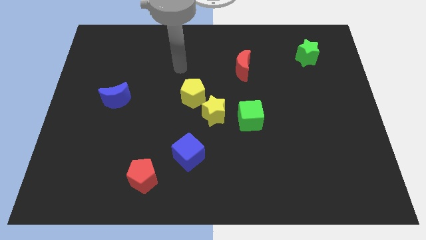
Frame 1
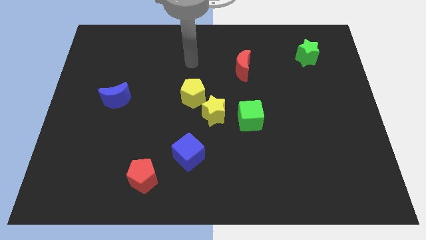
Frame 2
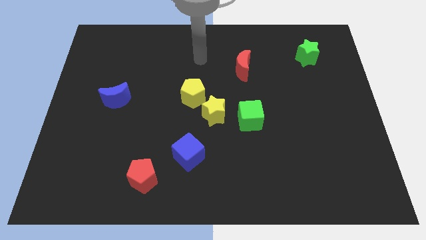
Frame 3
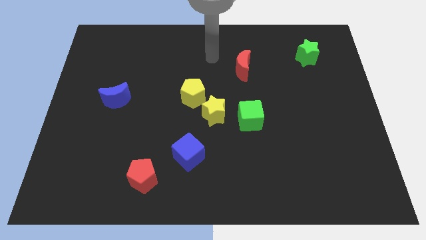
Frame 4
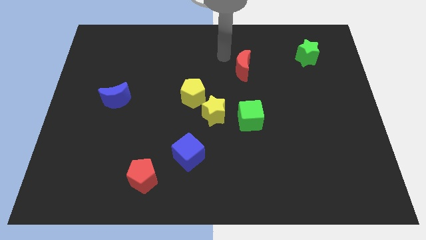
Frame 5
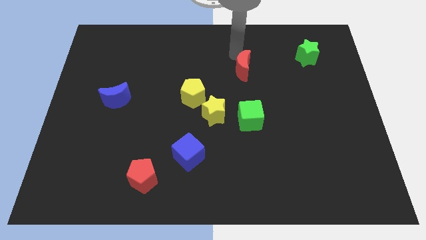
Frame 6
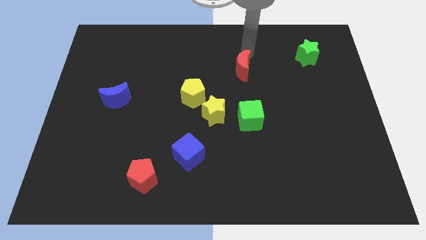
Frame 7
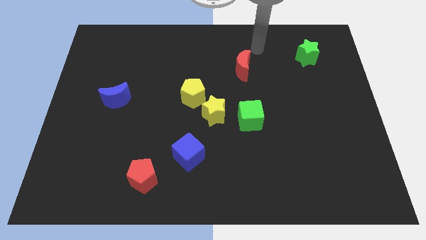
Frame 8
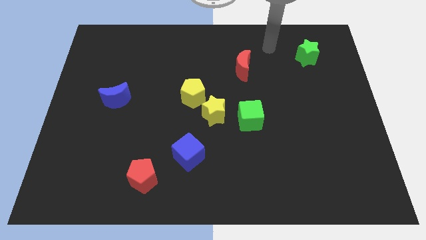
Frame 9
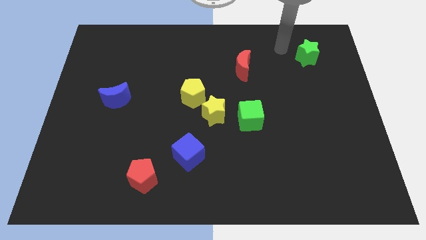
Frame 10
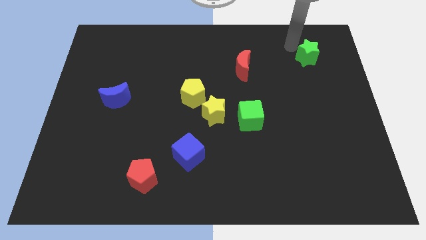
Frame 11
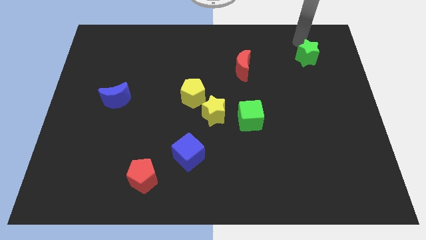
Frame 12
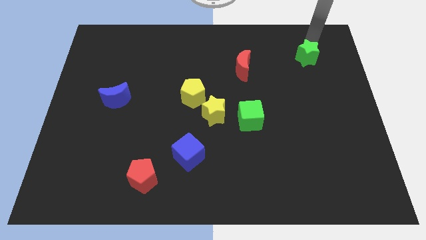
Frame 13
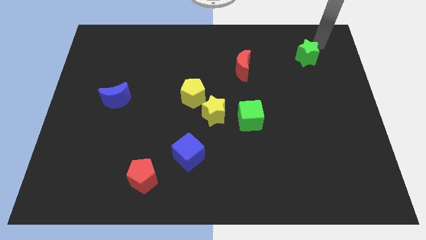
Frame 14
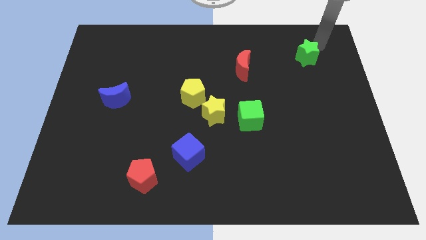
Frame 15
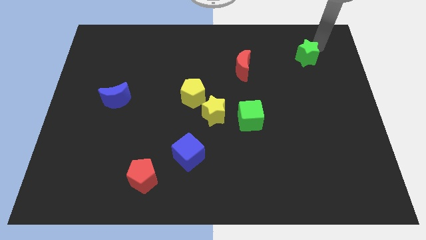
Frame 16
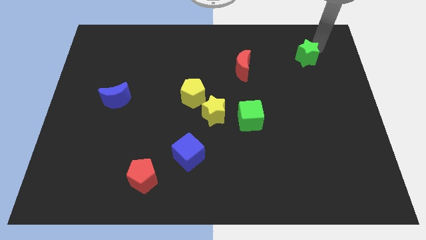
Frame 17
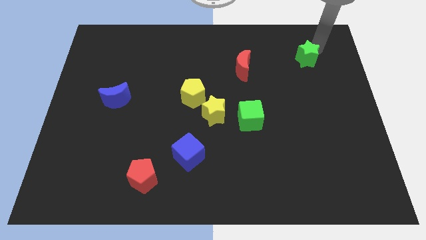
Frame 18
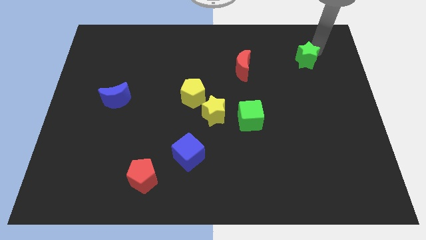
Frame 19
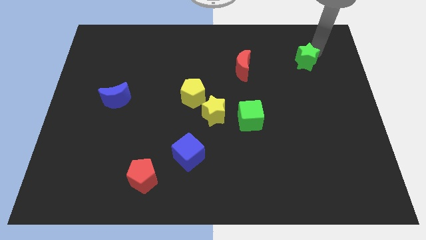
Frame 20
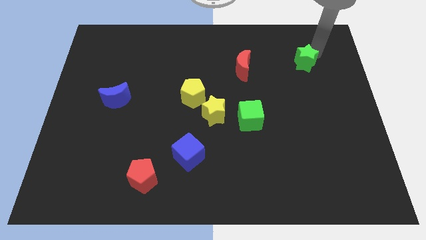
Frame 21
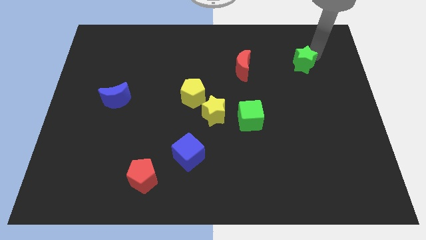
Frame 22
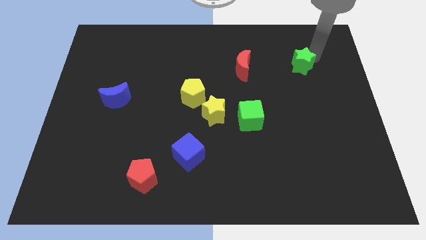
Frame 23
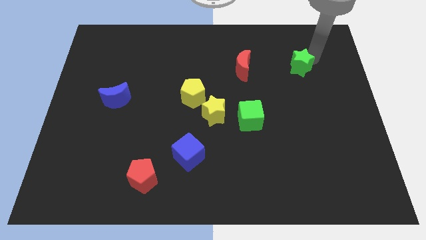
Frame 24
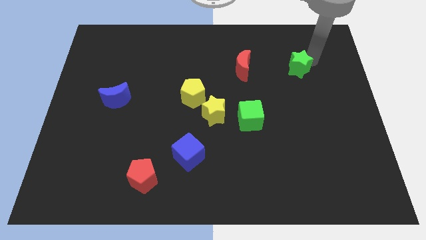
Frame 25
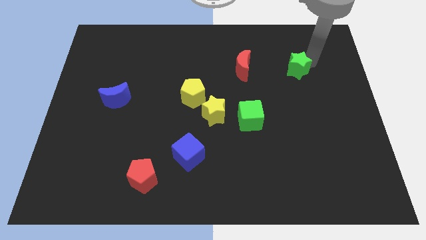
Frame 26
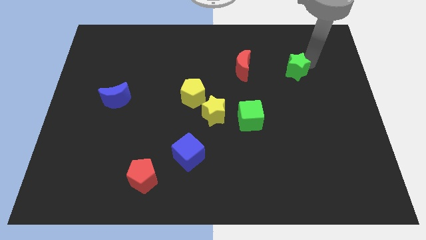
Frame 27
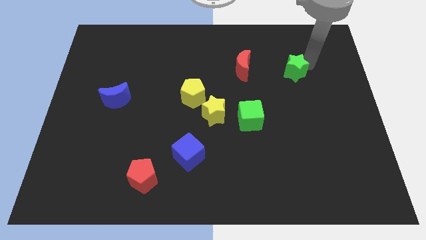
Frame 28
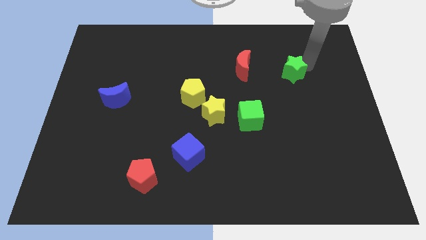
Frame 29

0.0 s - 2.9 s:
slightly move the green star down and left diagonally

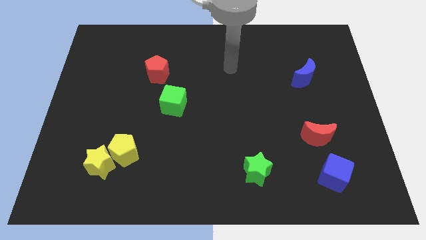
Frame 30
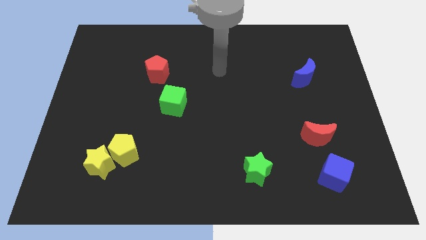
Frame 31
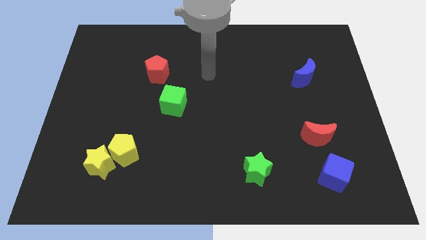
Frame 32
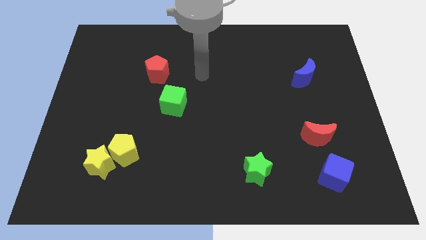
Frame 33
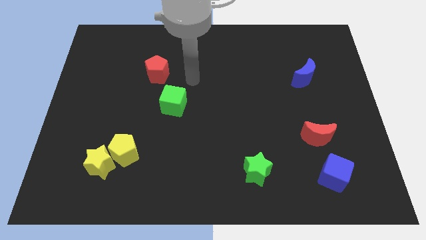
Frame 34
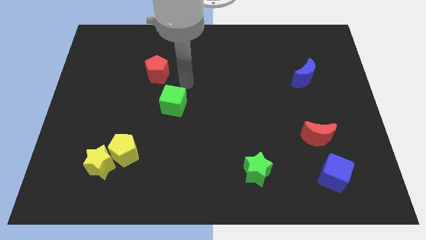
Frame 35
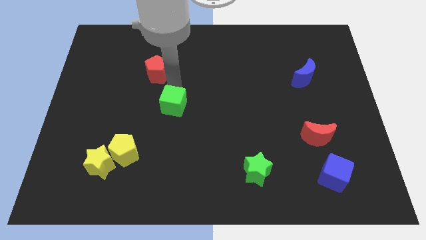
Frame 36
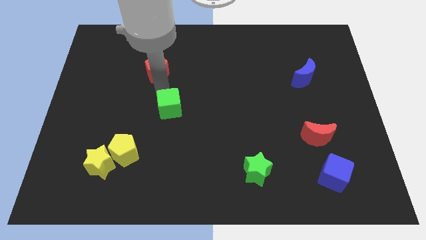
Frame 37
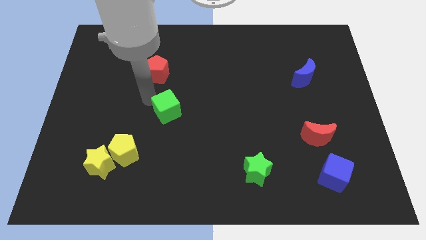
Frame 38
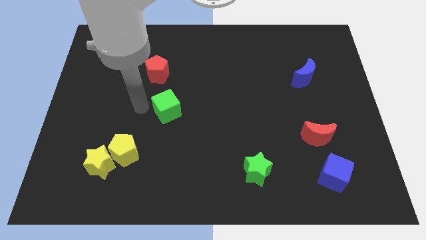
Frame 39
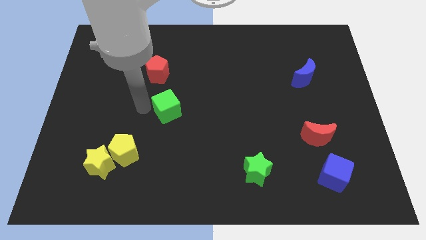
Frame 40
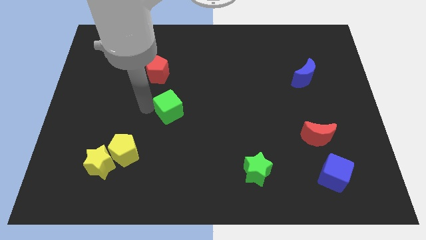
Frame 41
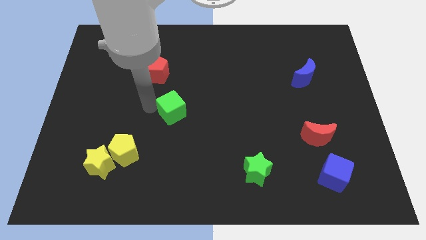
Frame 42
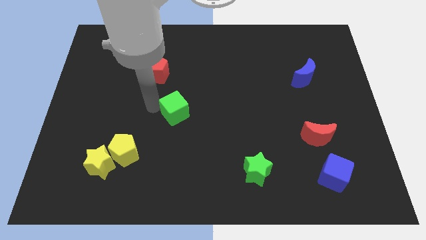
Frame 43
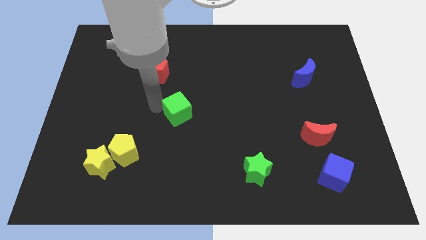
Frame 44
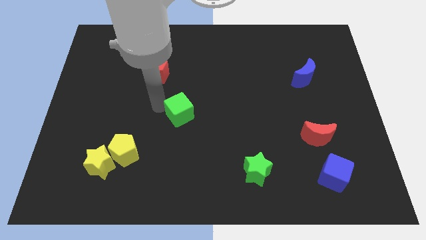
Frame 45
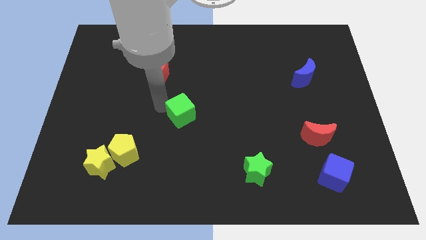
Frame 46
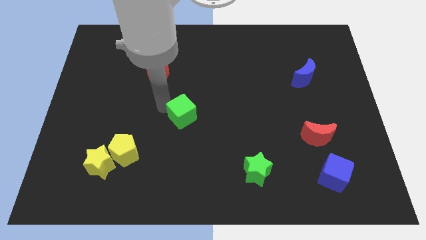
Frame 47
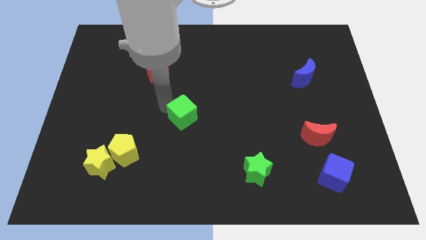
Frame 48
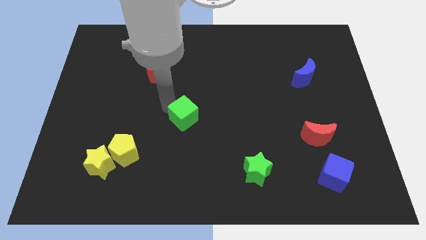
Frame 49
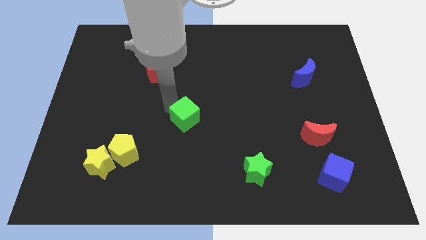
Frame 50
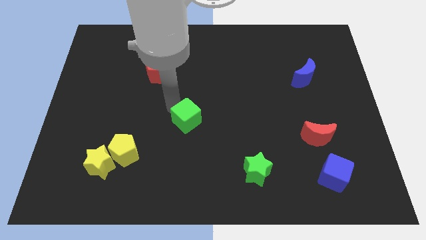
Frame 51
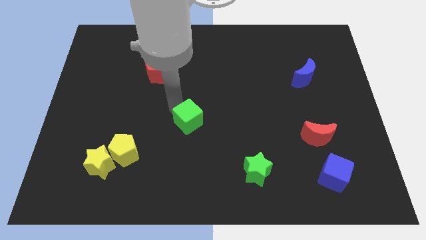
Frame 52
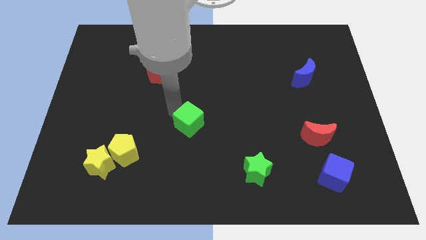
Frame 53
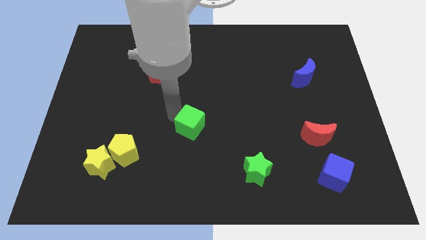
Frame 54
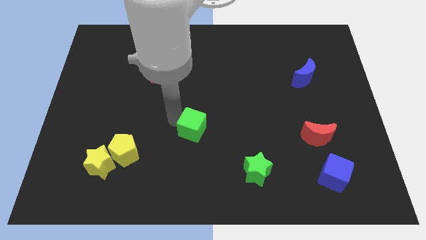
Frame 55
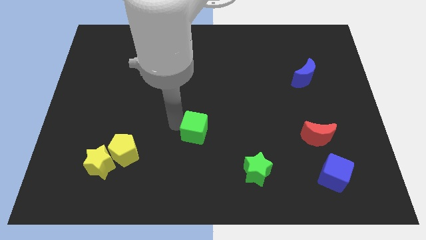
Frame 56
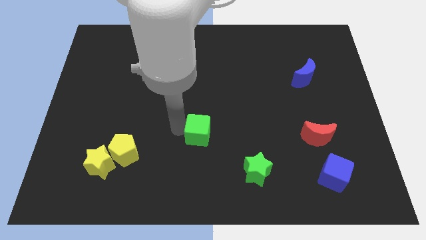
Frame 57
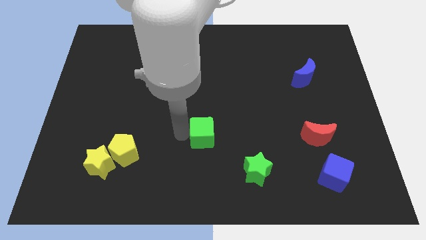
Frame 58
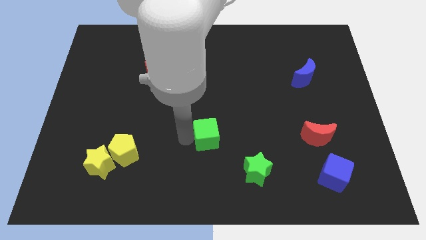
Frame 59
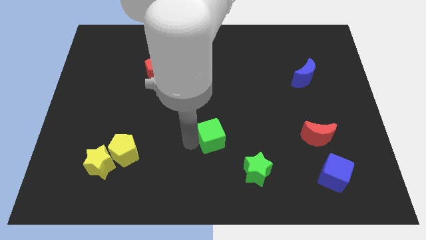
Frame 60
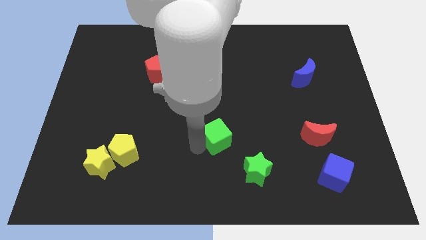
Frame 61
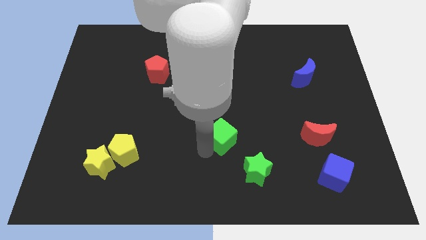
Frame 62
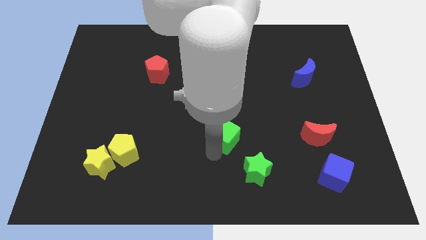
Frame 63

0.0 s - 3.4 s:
slightly slide the green cube right

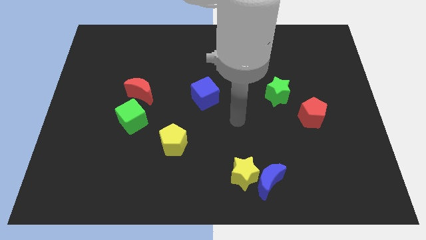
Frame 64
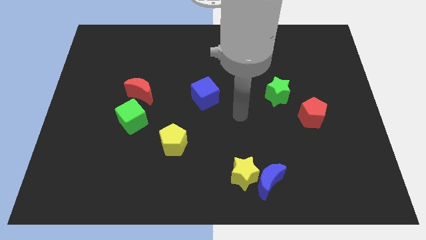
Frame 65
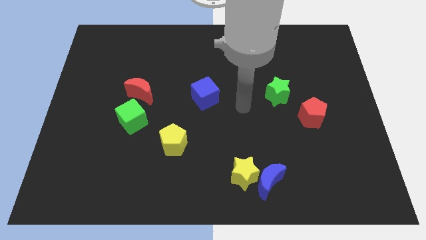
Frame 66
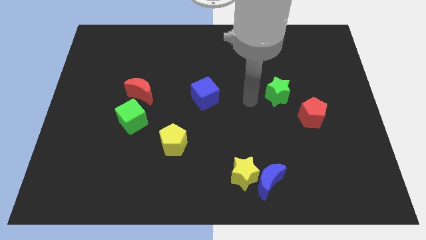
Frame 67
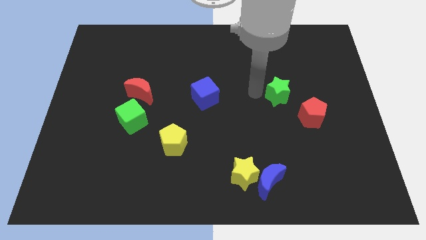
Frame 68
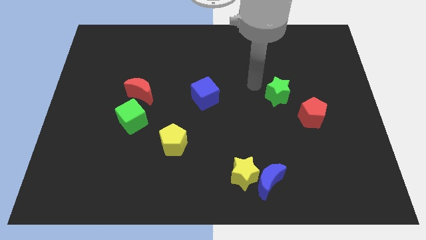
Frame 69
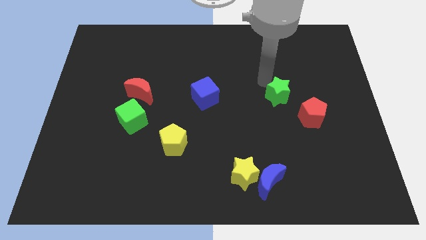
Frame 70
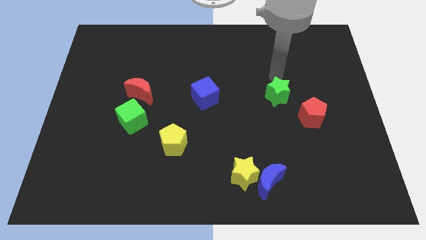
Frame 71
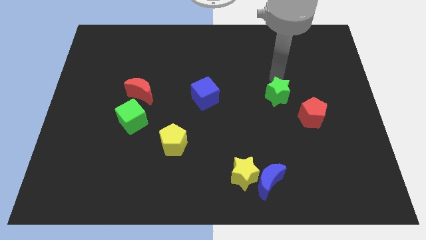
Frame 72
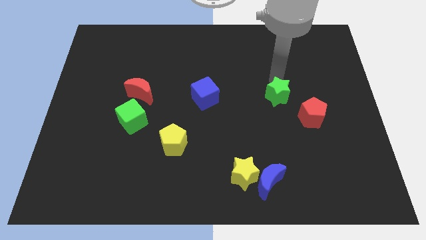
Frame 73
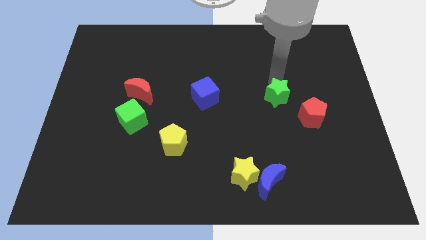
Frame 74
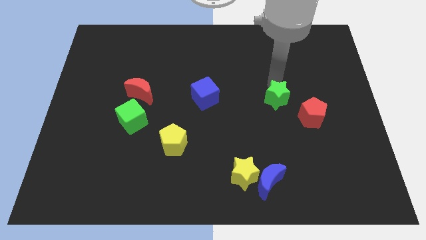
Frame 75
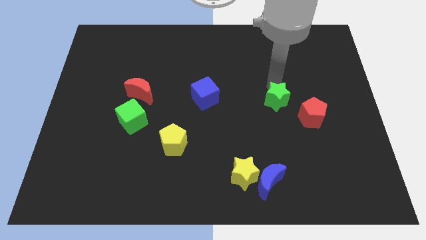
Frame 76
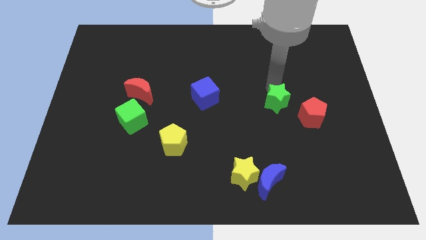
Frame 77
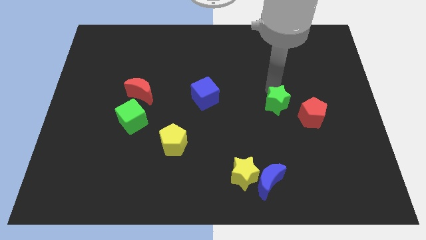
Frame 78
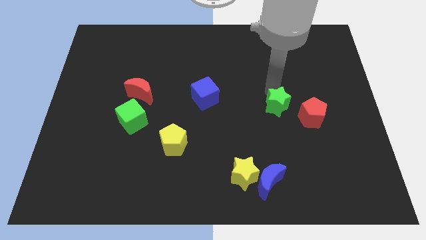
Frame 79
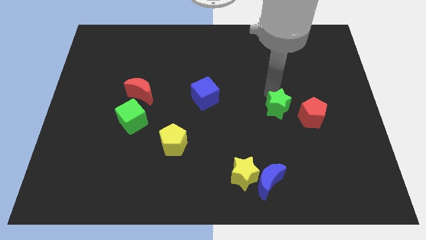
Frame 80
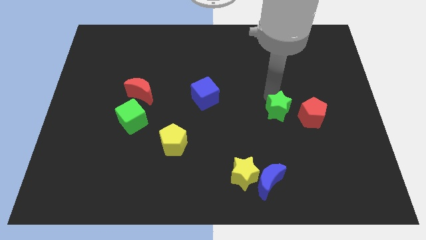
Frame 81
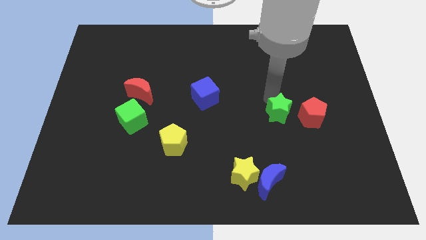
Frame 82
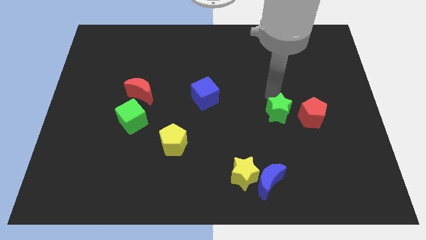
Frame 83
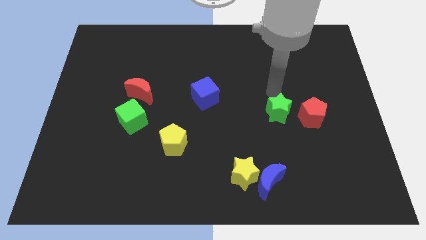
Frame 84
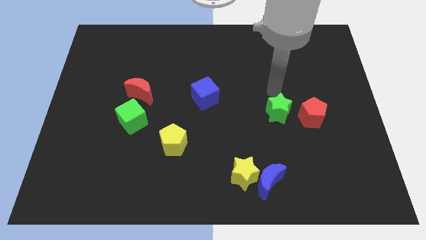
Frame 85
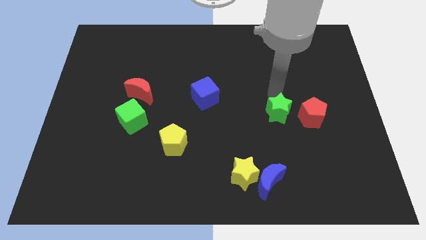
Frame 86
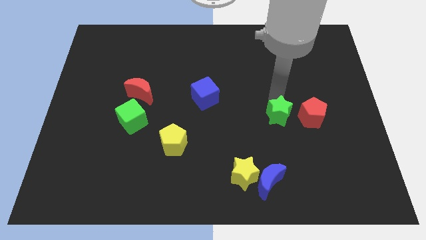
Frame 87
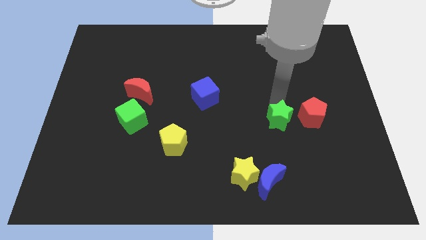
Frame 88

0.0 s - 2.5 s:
move the green star a little bit down
